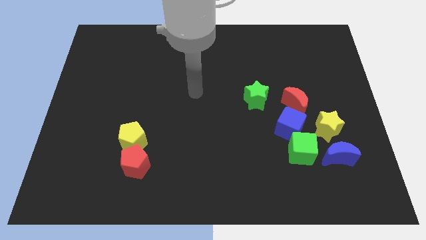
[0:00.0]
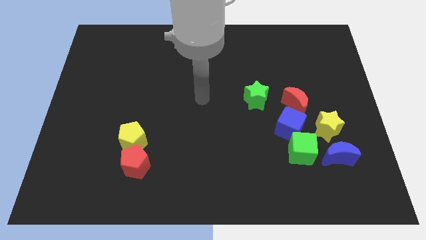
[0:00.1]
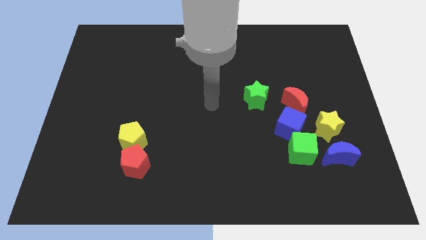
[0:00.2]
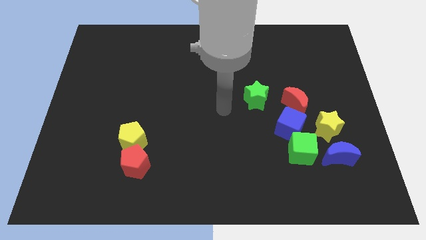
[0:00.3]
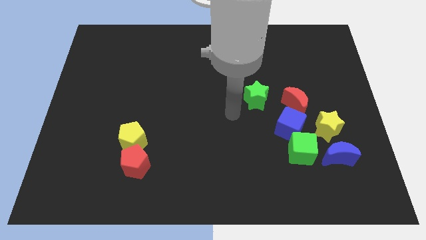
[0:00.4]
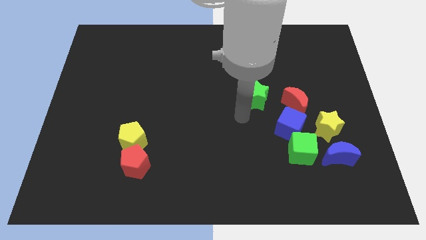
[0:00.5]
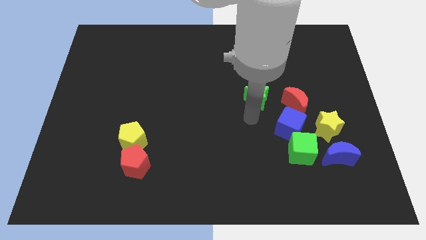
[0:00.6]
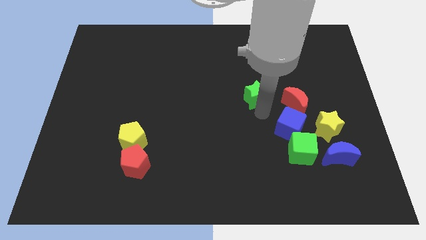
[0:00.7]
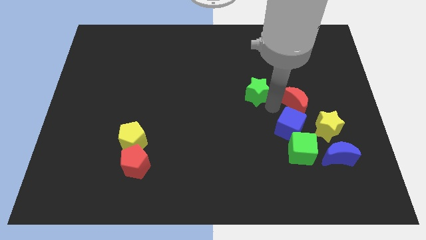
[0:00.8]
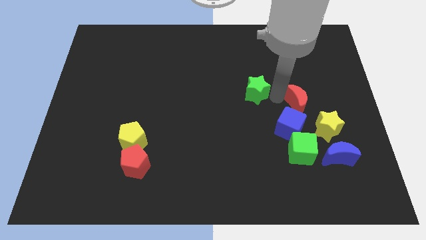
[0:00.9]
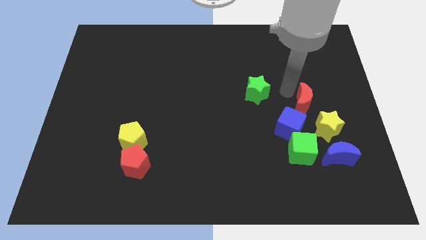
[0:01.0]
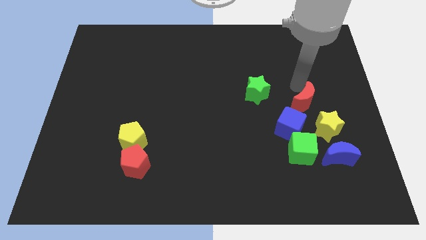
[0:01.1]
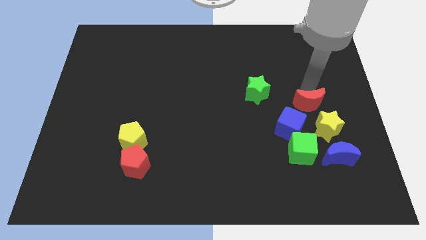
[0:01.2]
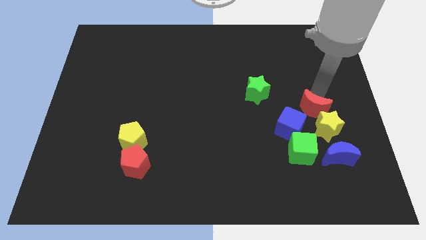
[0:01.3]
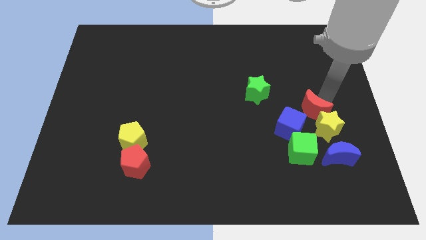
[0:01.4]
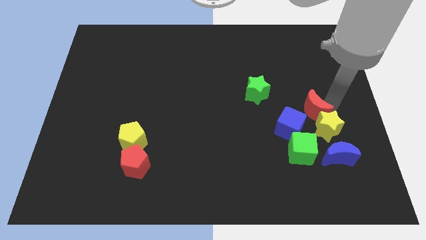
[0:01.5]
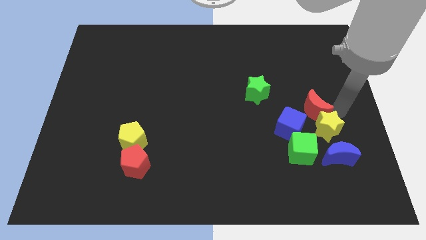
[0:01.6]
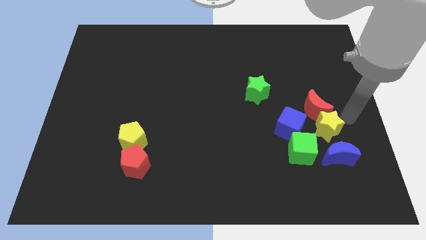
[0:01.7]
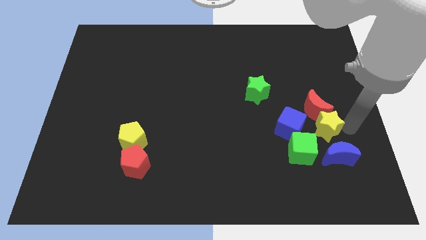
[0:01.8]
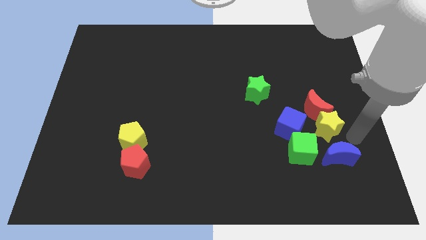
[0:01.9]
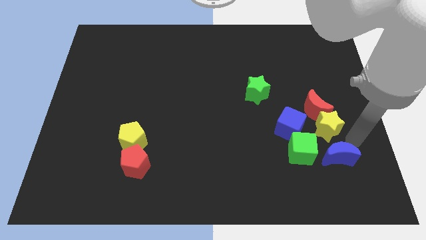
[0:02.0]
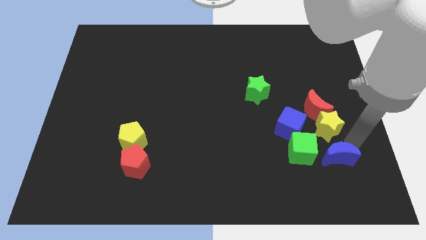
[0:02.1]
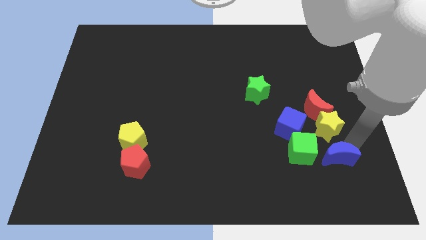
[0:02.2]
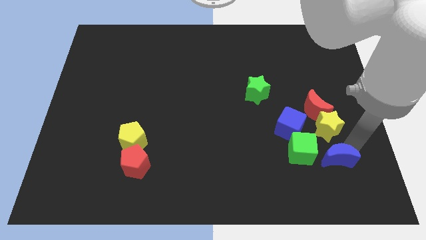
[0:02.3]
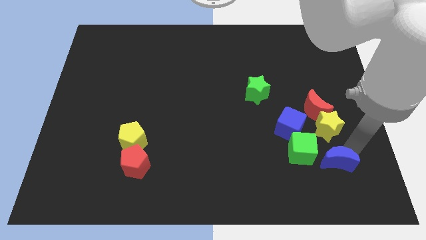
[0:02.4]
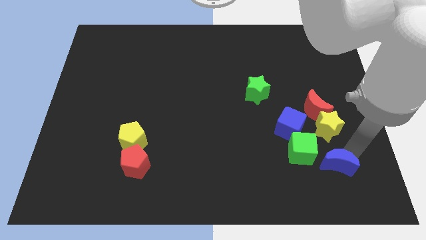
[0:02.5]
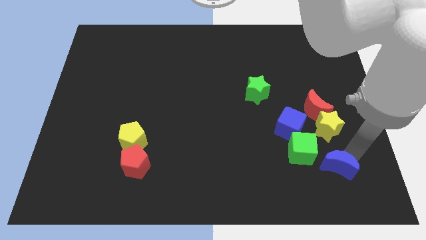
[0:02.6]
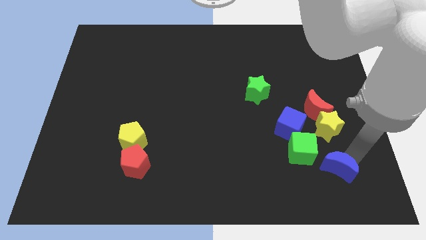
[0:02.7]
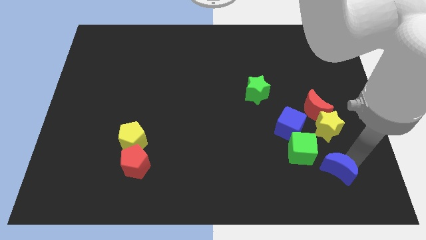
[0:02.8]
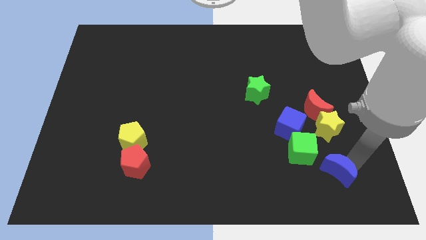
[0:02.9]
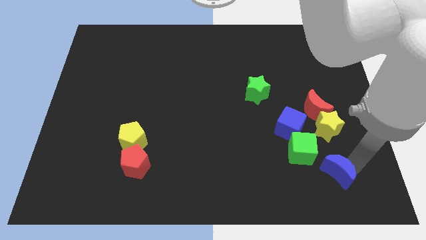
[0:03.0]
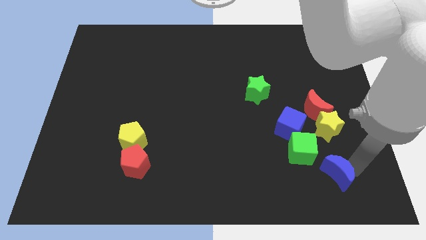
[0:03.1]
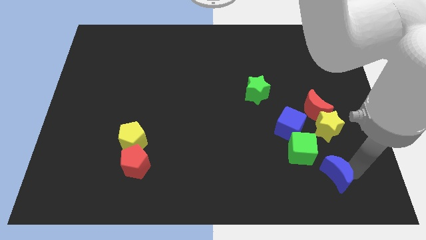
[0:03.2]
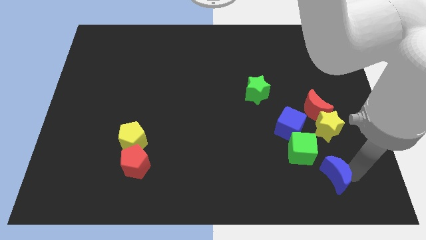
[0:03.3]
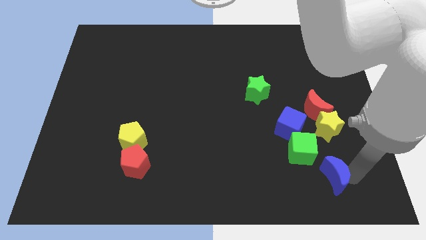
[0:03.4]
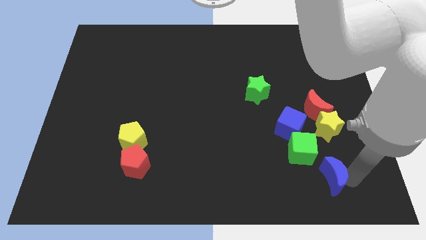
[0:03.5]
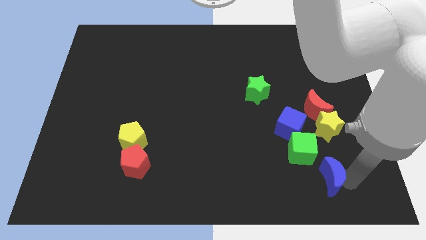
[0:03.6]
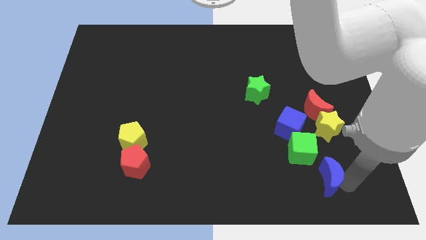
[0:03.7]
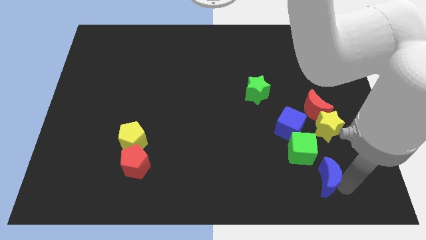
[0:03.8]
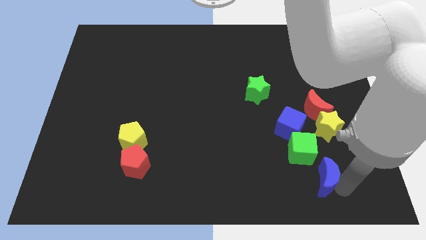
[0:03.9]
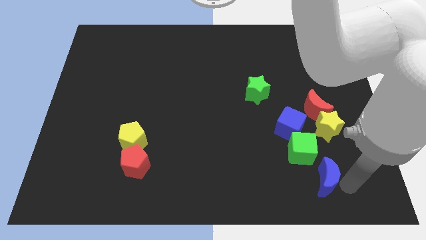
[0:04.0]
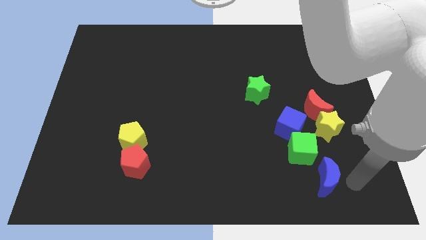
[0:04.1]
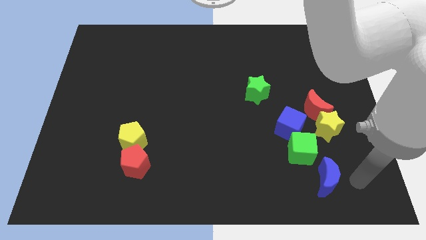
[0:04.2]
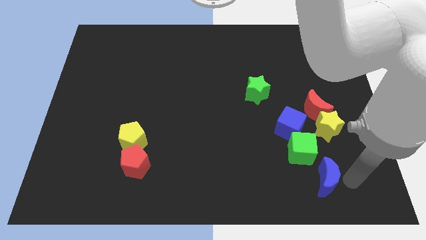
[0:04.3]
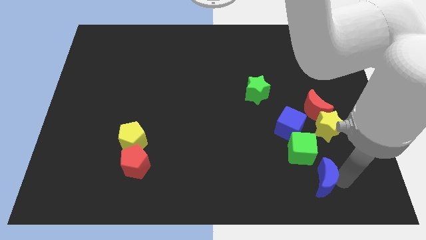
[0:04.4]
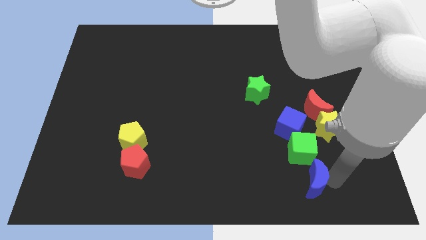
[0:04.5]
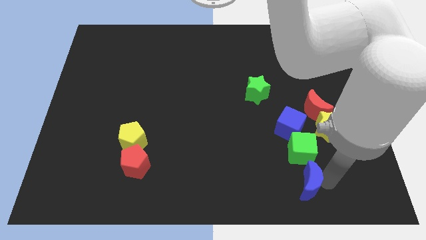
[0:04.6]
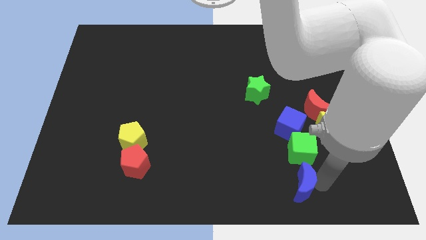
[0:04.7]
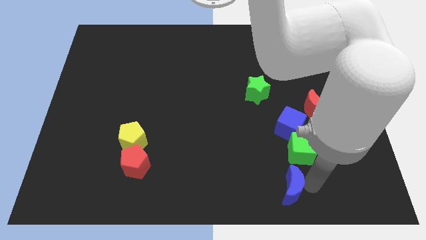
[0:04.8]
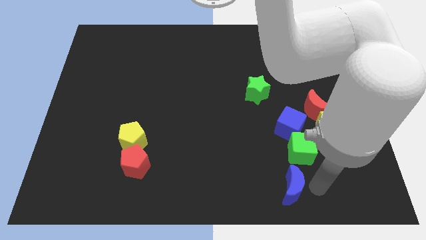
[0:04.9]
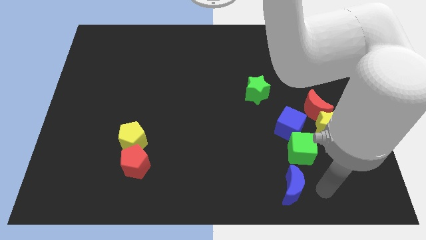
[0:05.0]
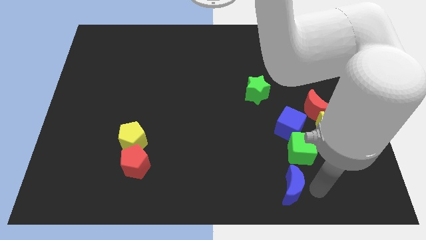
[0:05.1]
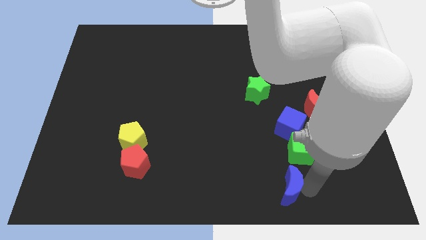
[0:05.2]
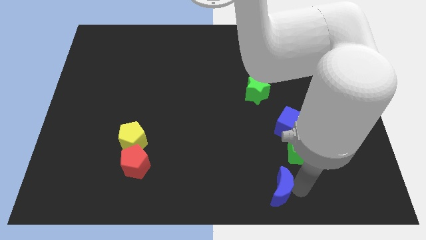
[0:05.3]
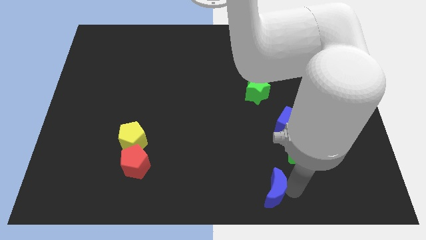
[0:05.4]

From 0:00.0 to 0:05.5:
slide the blue moon to the bottom side

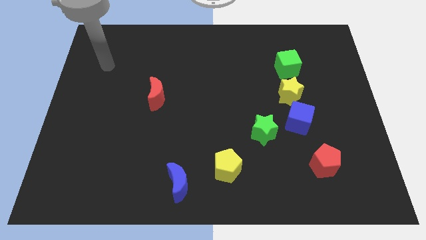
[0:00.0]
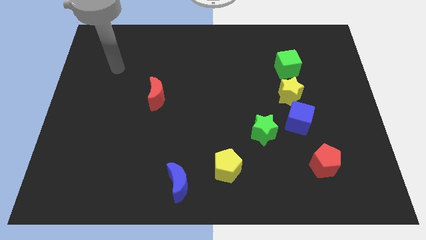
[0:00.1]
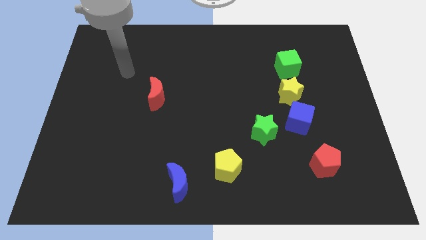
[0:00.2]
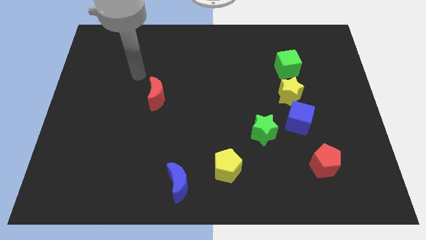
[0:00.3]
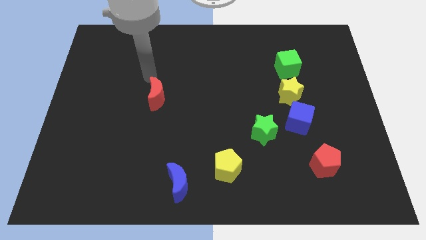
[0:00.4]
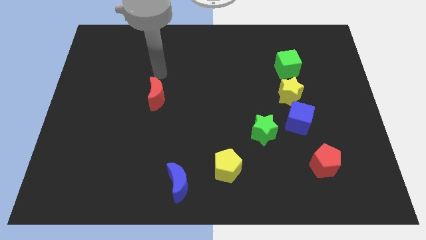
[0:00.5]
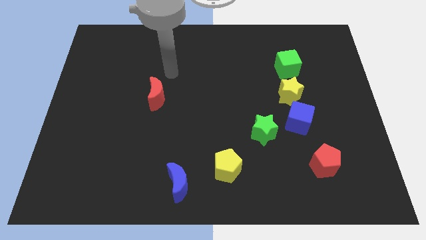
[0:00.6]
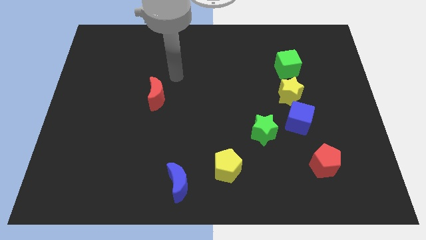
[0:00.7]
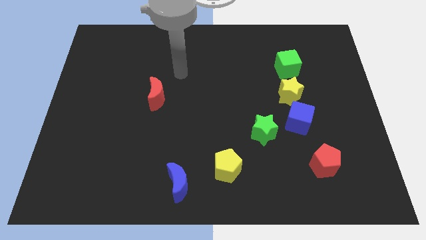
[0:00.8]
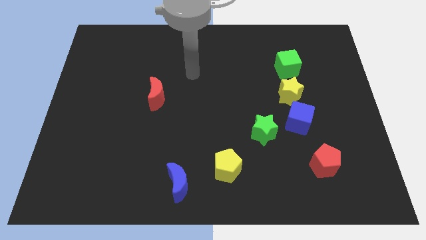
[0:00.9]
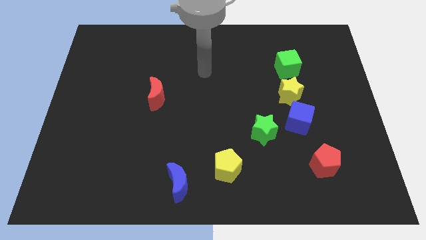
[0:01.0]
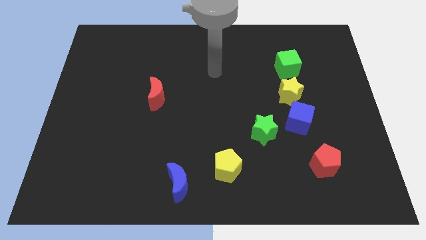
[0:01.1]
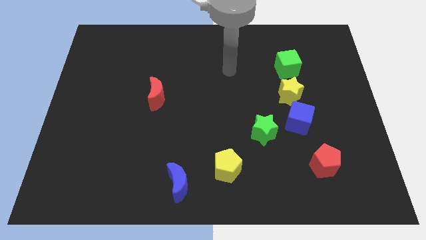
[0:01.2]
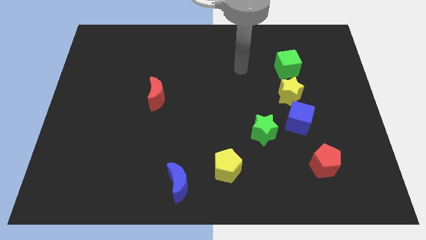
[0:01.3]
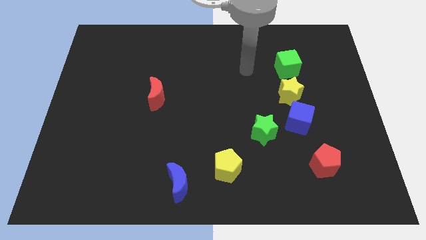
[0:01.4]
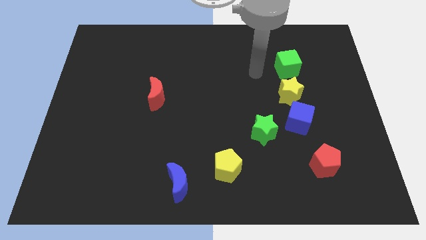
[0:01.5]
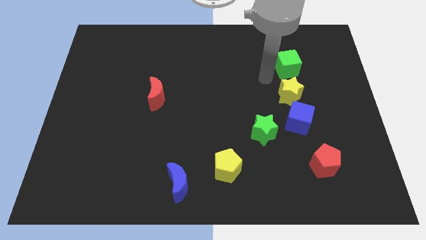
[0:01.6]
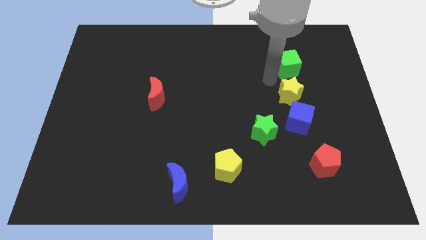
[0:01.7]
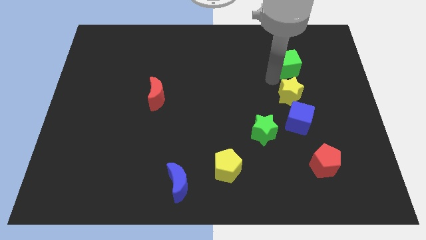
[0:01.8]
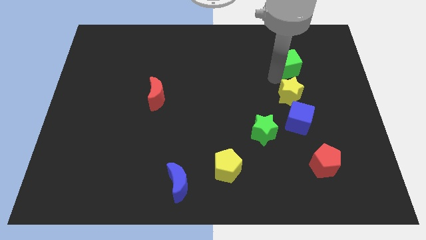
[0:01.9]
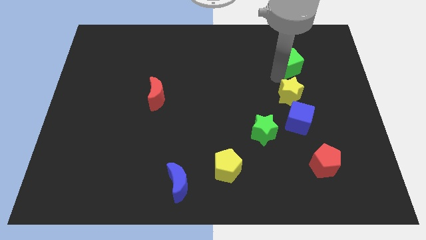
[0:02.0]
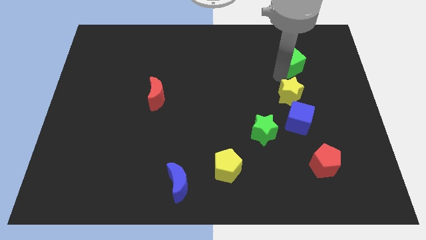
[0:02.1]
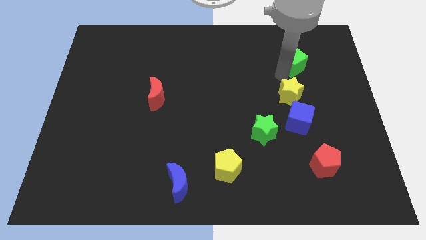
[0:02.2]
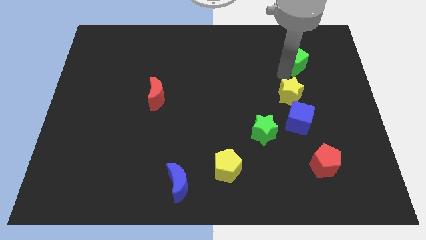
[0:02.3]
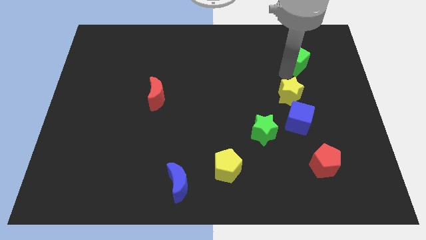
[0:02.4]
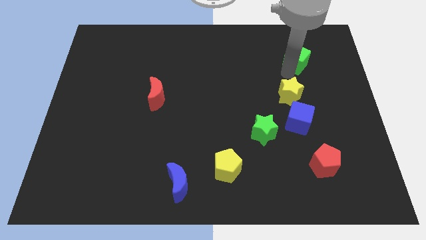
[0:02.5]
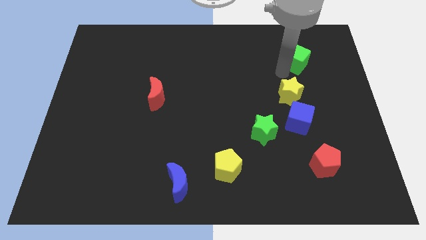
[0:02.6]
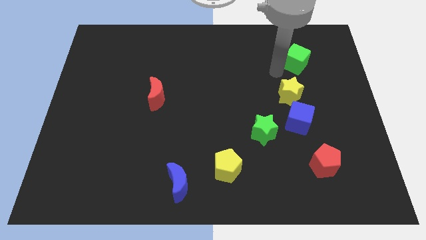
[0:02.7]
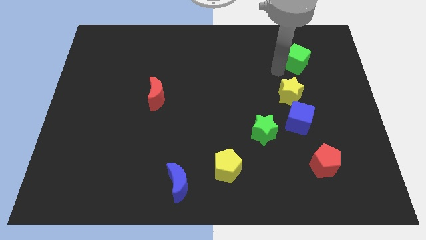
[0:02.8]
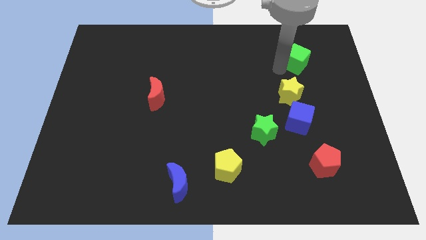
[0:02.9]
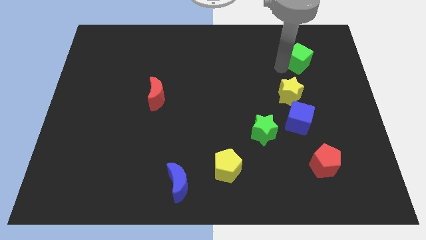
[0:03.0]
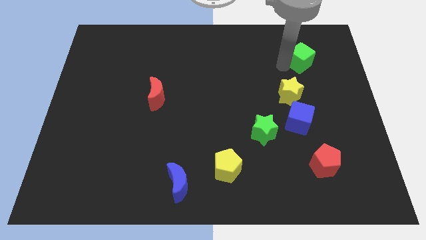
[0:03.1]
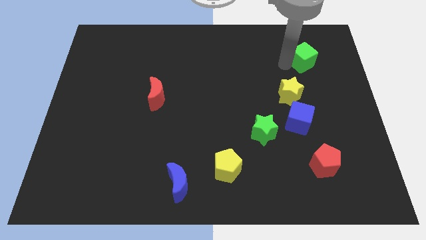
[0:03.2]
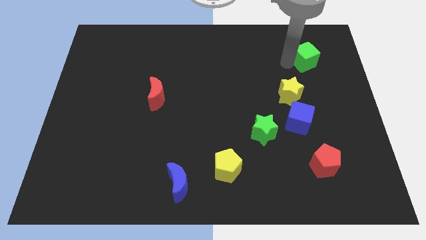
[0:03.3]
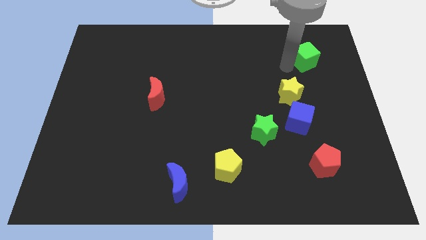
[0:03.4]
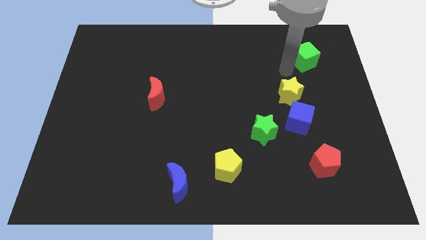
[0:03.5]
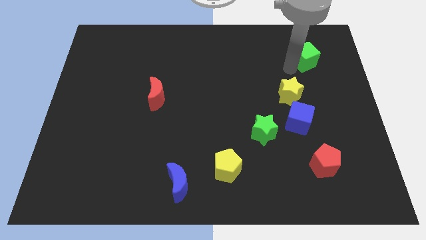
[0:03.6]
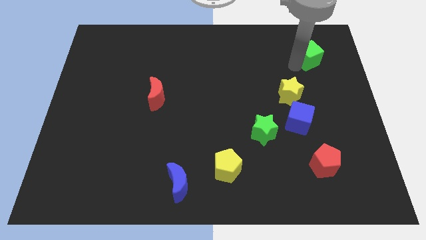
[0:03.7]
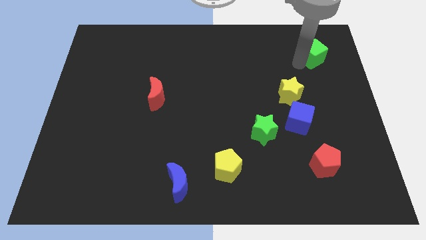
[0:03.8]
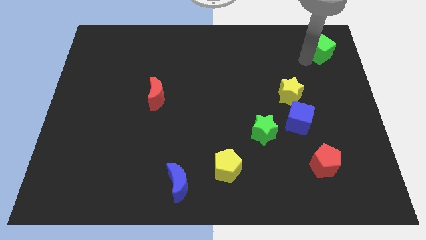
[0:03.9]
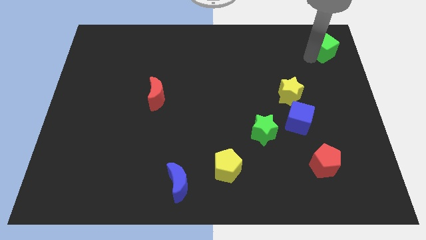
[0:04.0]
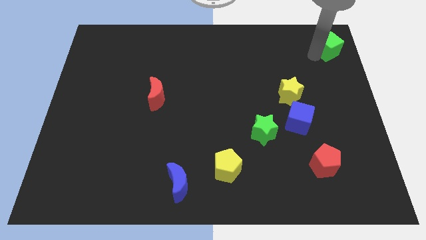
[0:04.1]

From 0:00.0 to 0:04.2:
push the green cube to the top right corner
